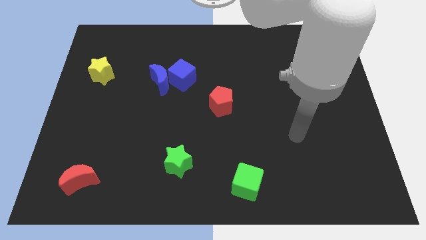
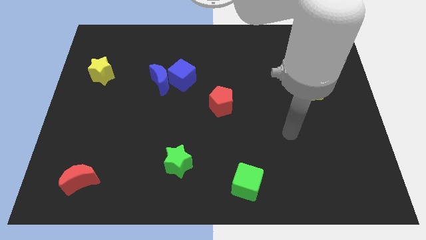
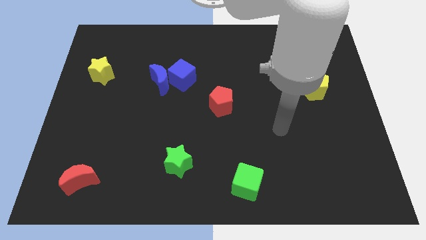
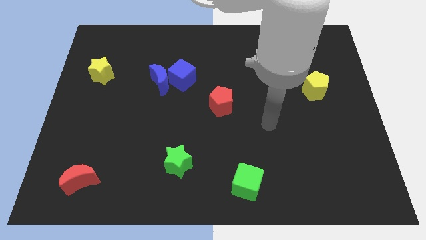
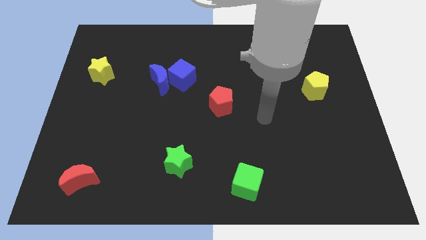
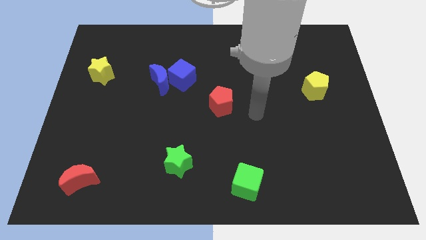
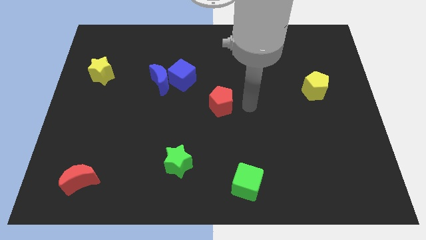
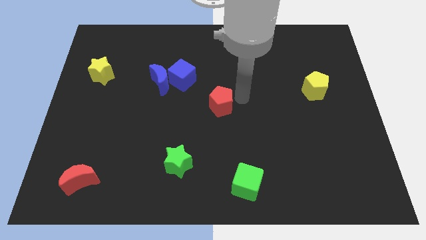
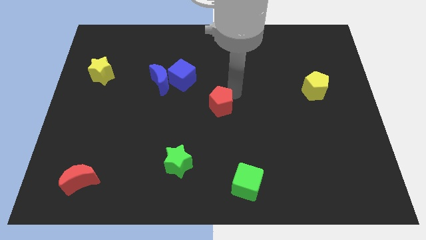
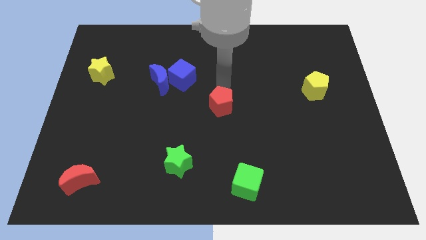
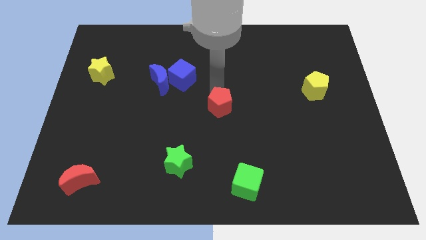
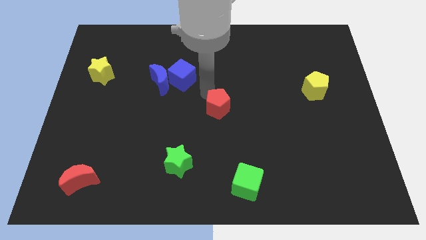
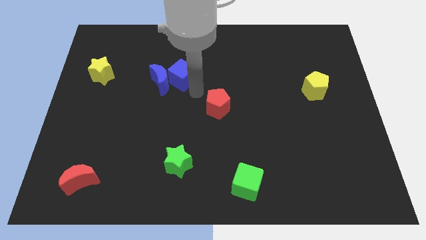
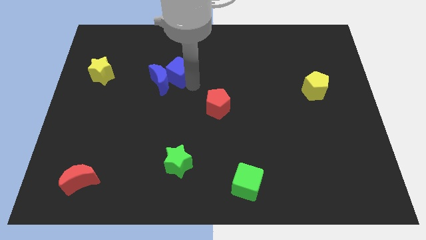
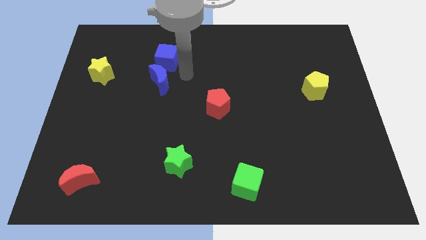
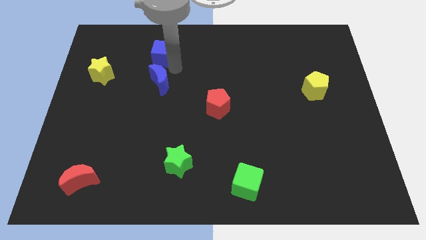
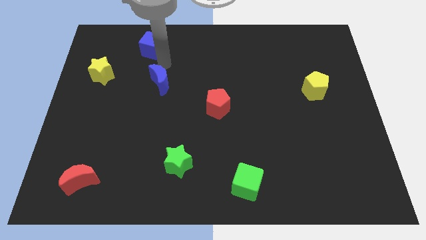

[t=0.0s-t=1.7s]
pull the blue moon apart from the blue cube

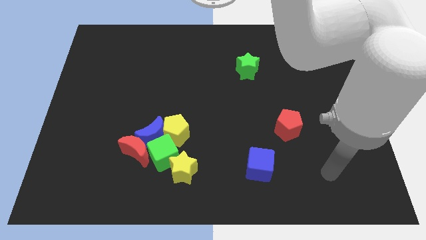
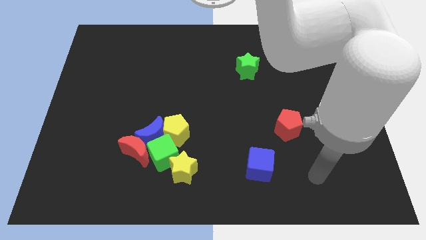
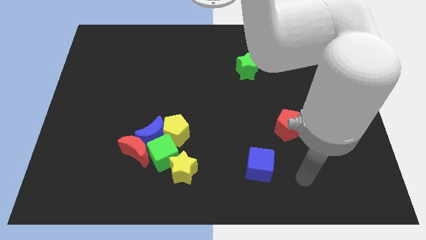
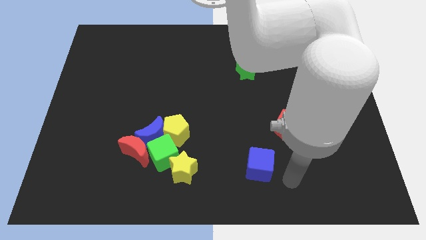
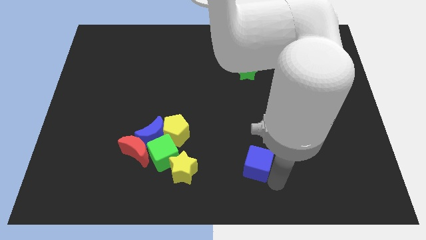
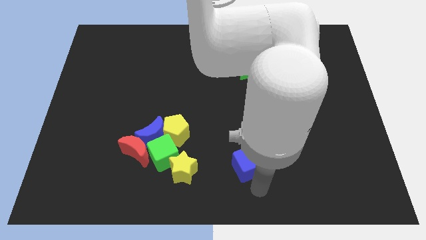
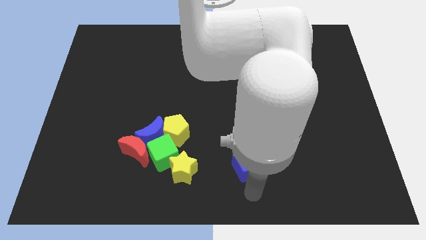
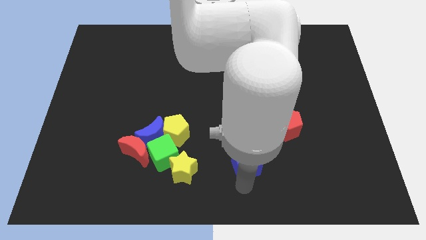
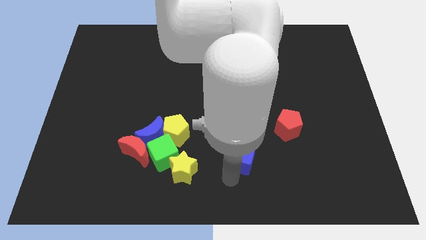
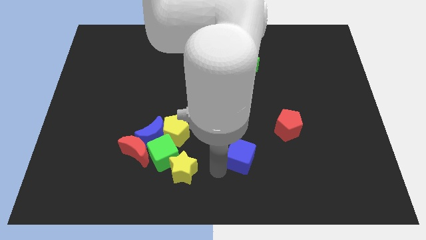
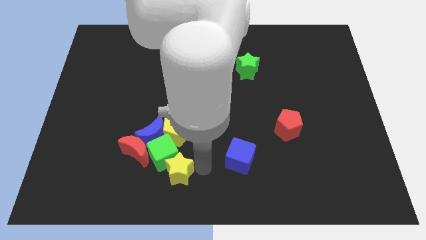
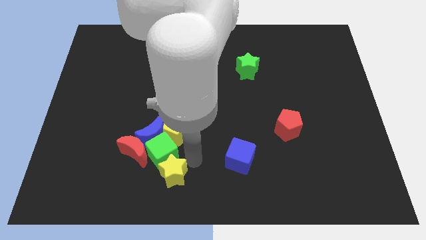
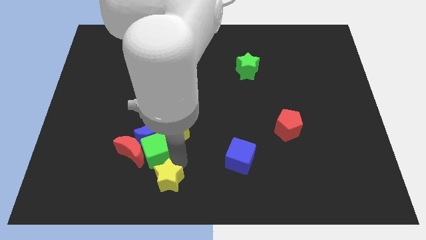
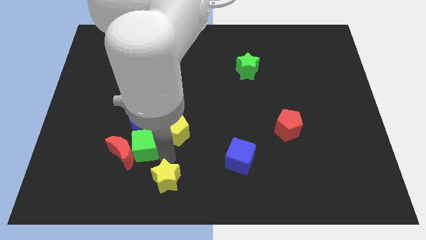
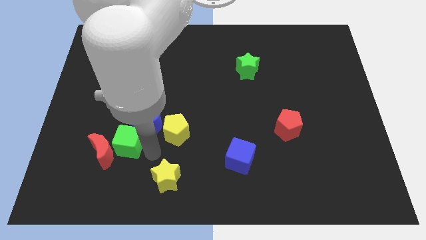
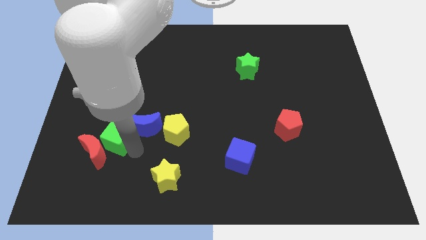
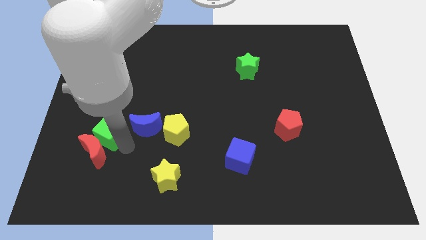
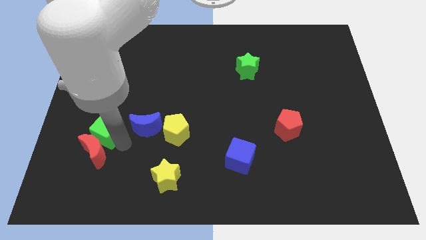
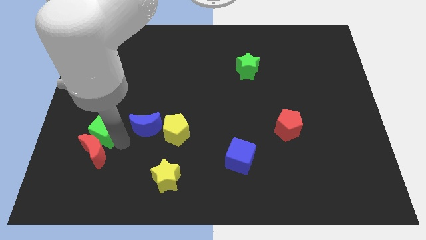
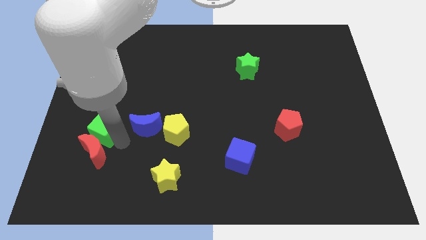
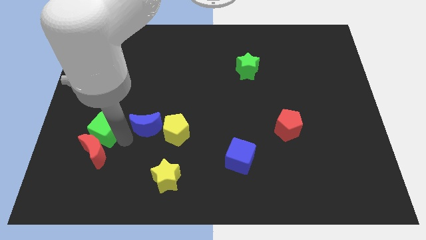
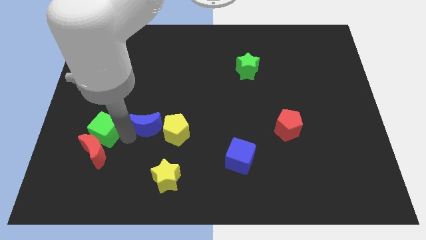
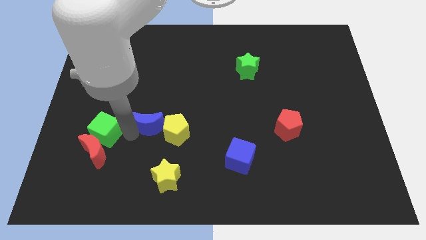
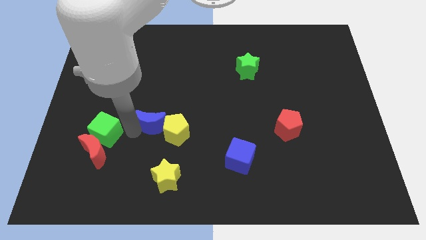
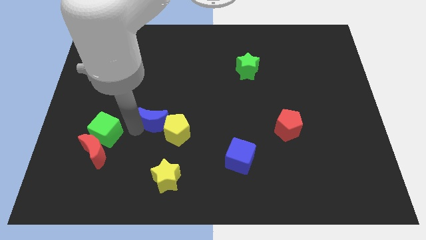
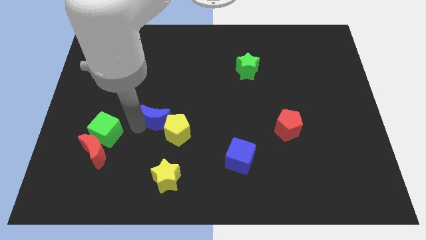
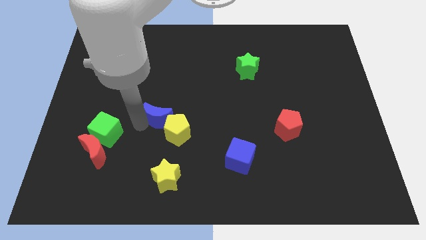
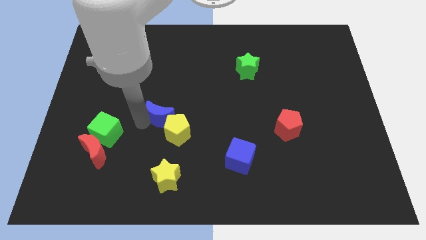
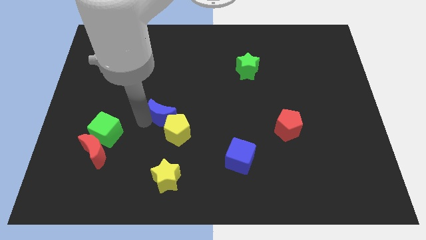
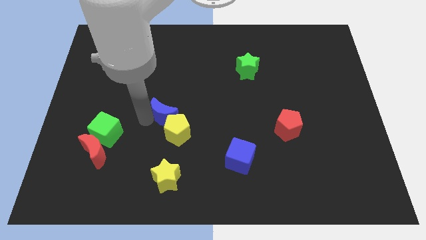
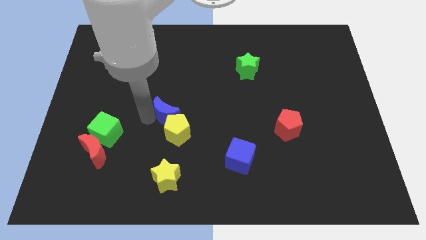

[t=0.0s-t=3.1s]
separate the blue moon from the red moon, yellow pentagon, and green cube

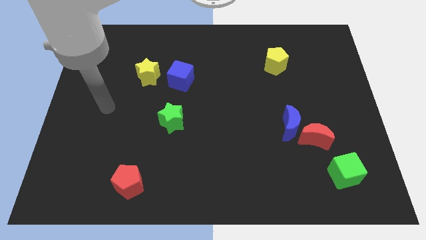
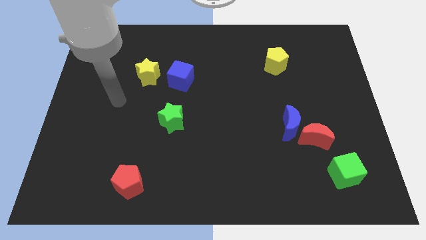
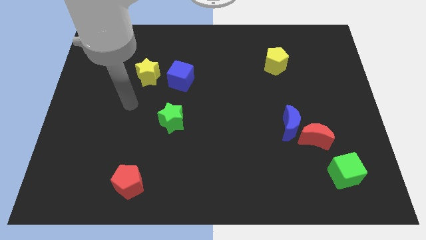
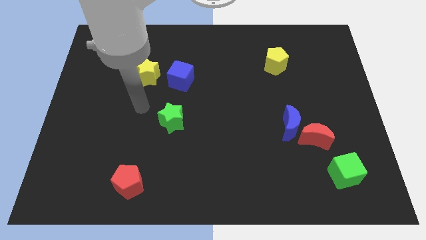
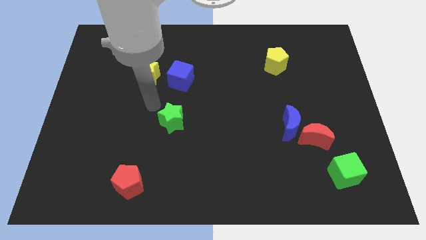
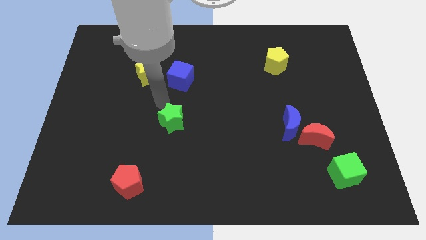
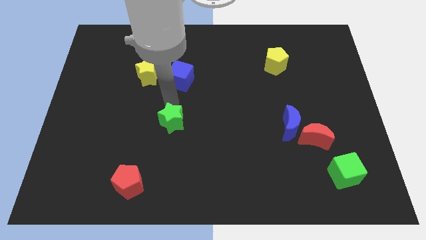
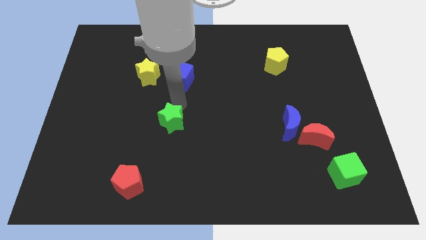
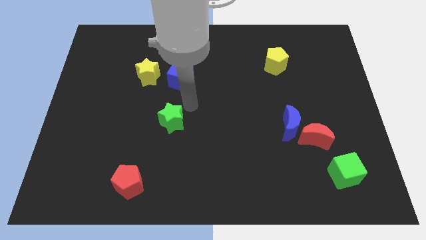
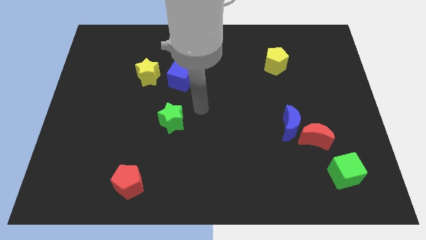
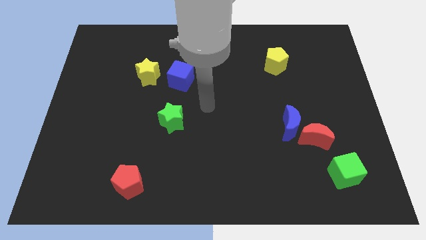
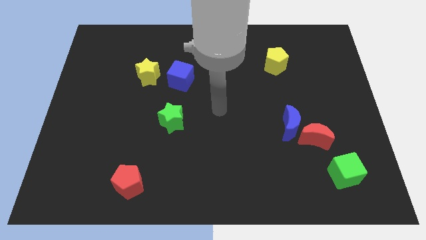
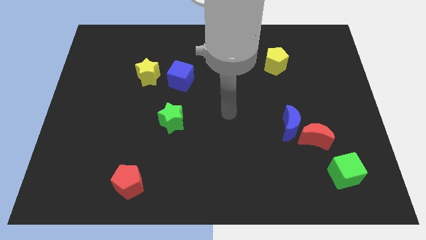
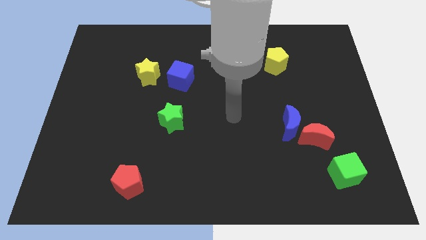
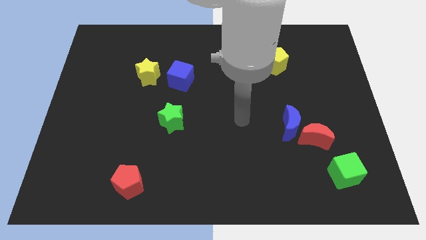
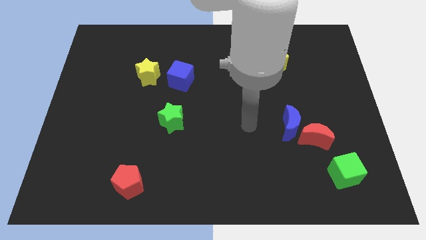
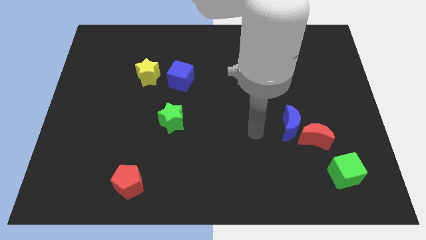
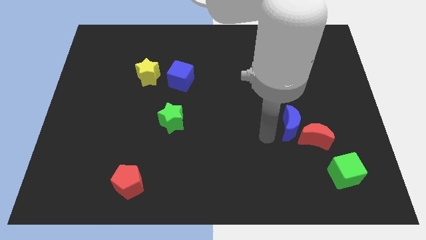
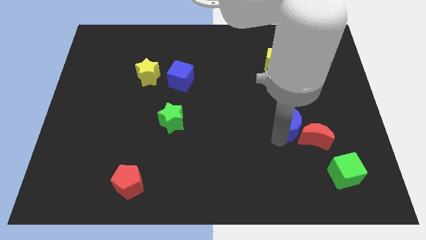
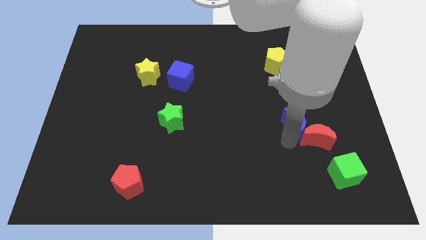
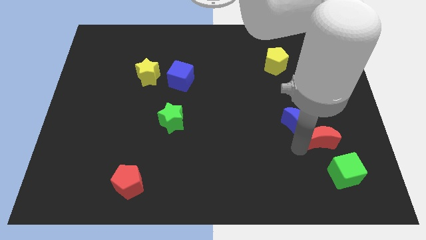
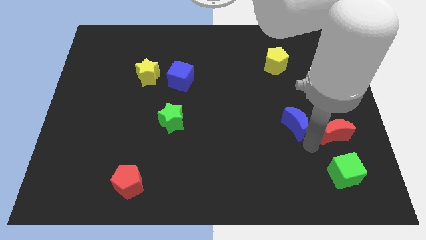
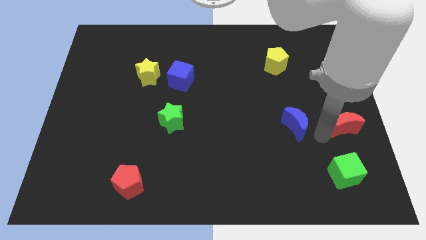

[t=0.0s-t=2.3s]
pull the blue moon apart from the red moon

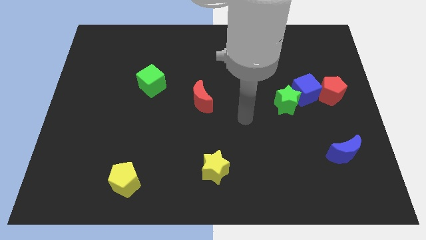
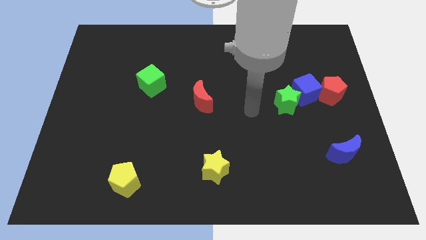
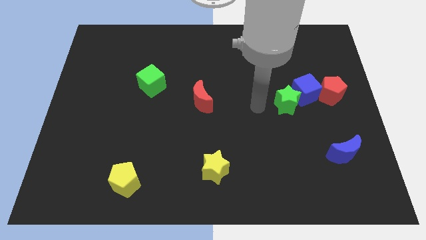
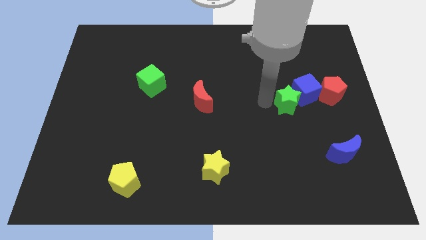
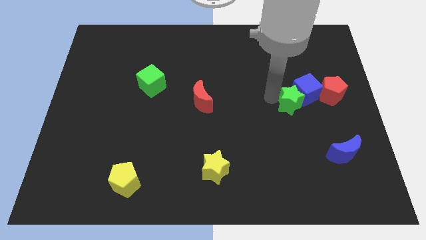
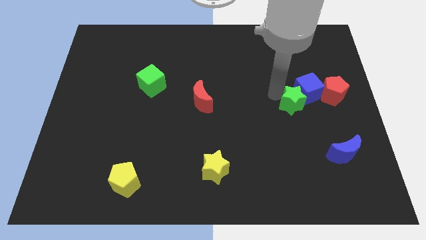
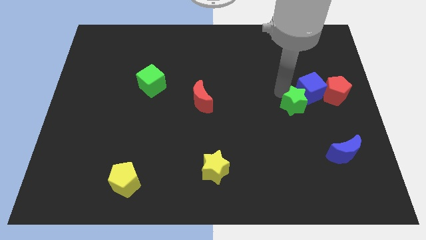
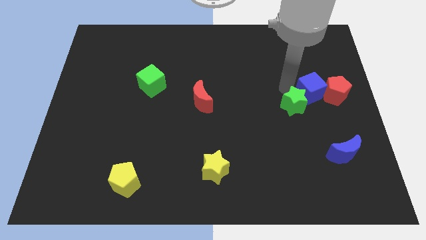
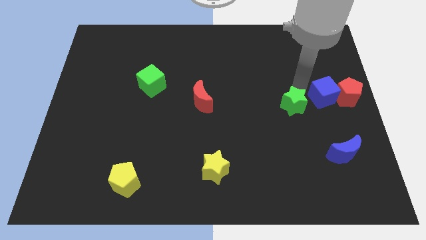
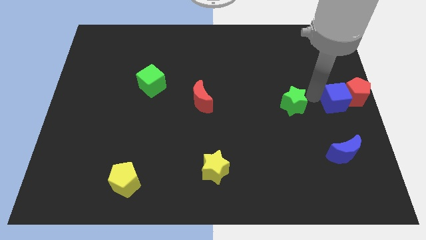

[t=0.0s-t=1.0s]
move the green star away from the blue cube

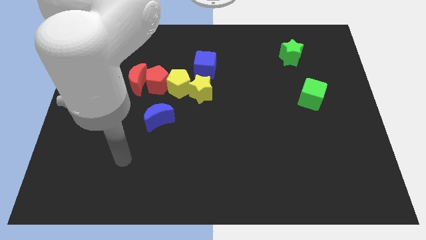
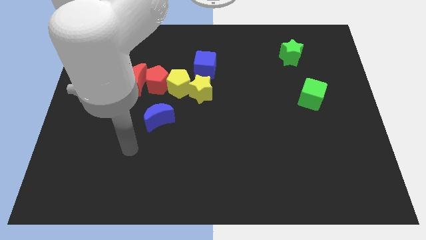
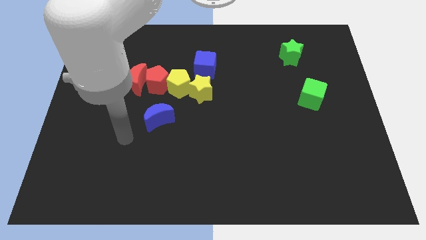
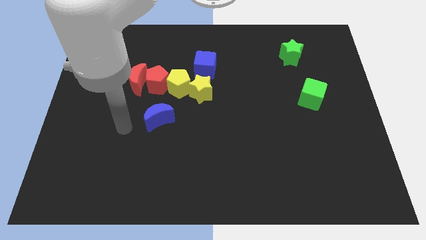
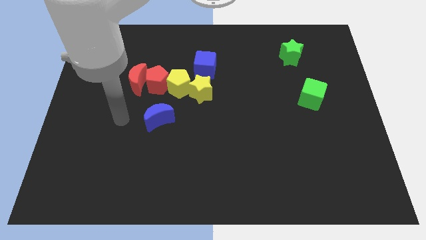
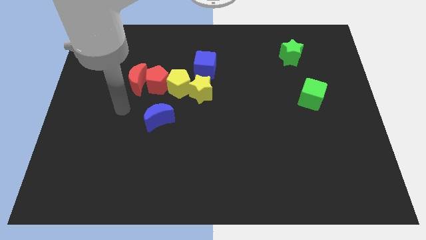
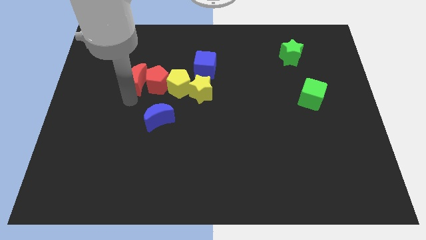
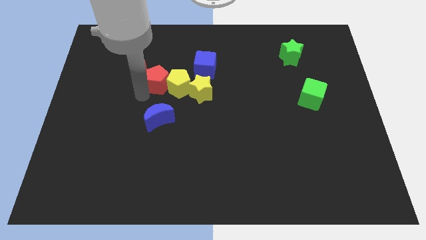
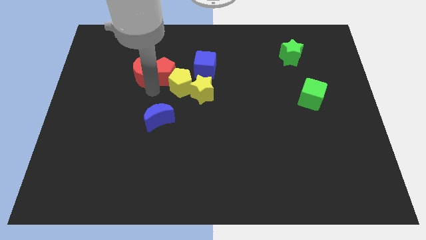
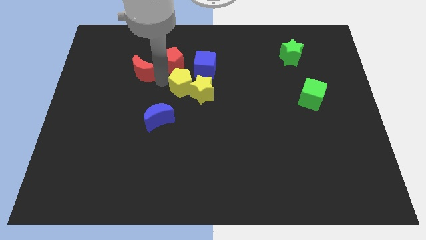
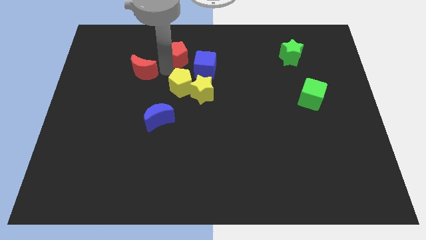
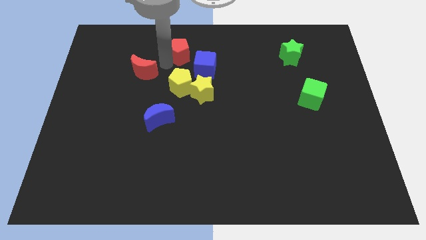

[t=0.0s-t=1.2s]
pull the red moon apart from the red pentagon
